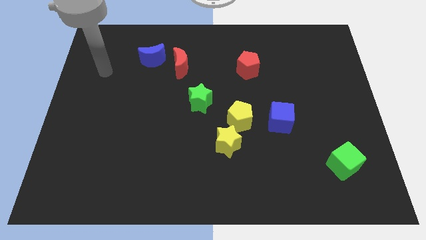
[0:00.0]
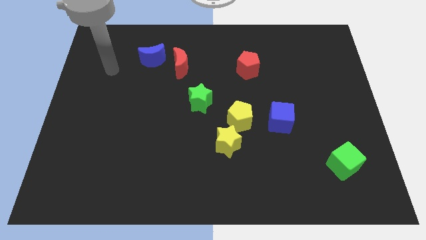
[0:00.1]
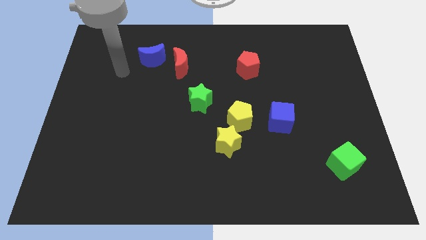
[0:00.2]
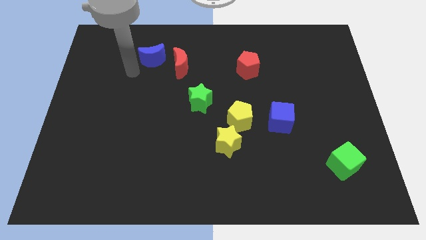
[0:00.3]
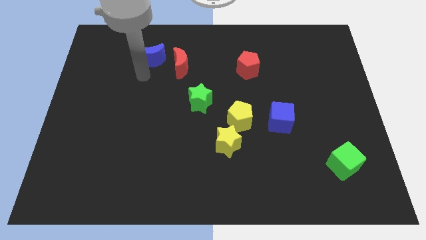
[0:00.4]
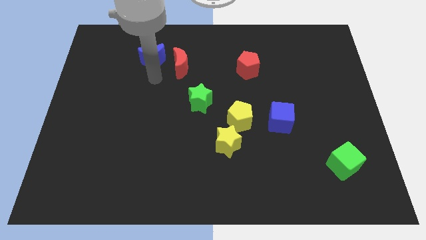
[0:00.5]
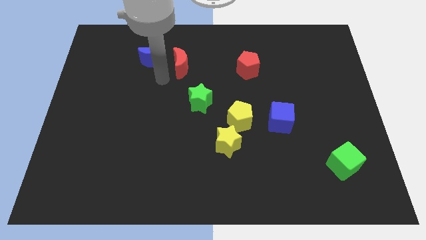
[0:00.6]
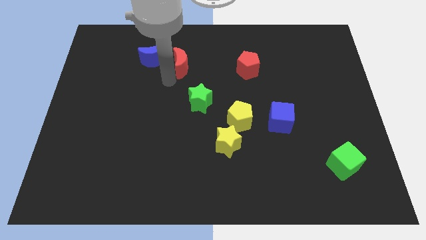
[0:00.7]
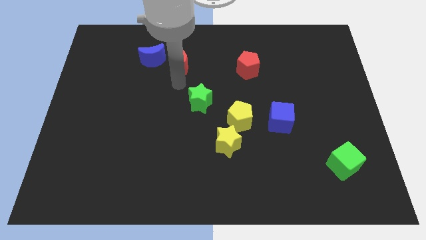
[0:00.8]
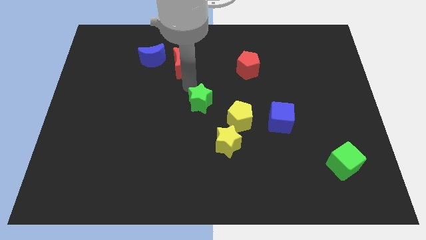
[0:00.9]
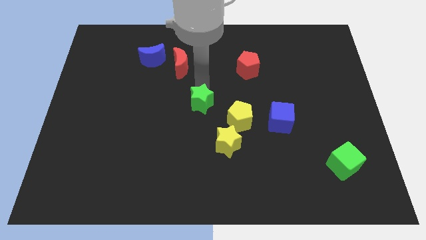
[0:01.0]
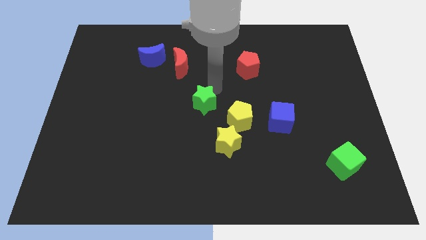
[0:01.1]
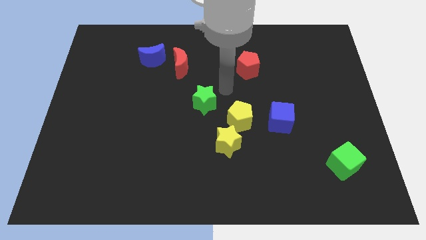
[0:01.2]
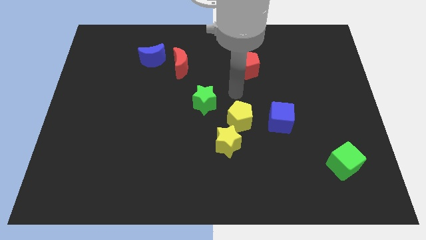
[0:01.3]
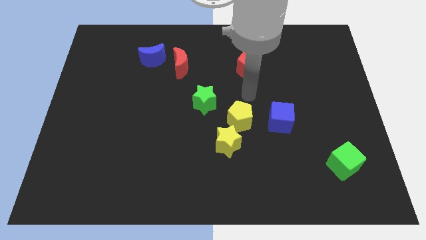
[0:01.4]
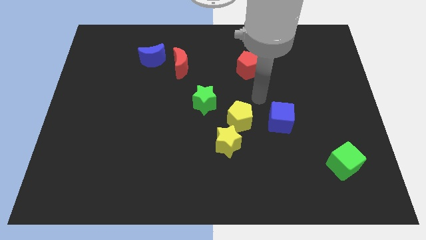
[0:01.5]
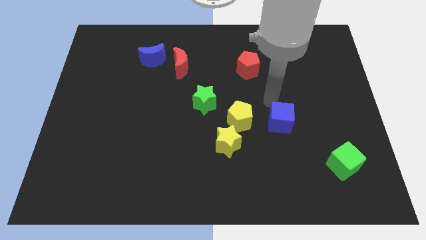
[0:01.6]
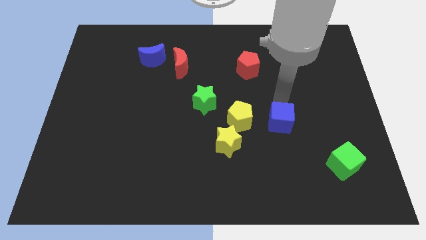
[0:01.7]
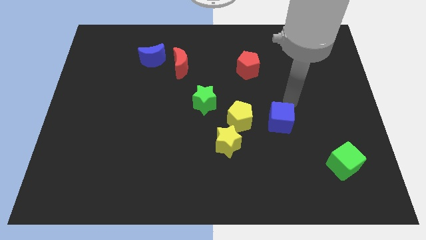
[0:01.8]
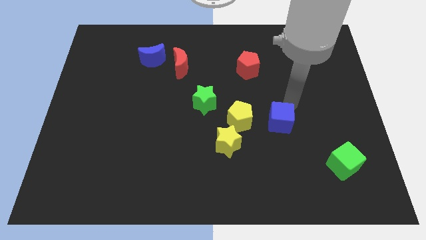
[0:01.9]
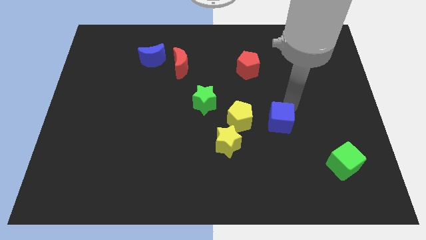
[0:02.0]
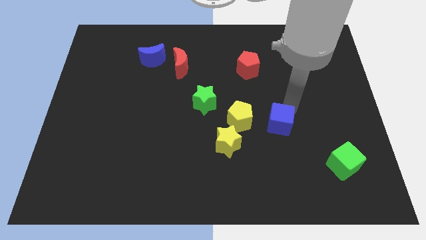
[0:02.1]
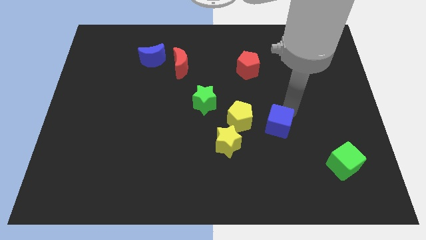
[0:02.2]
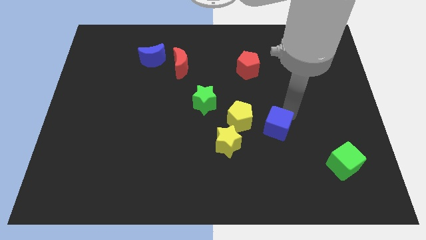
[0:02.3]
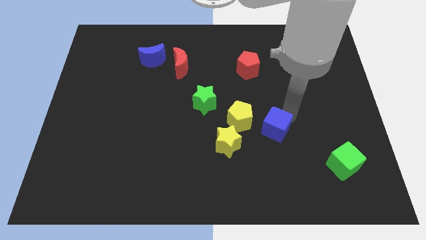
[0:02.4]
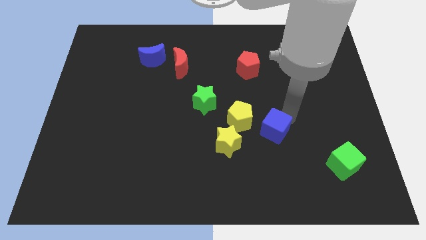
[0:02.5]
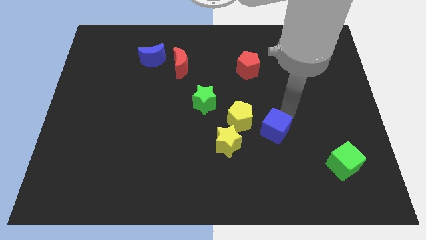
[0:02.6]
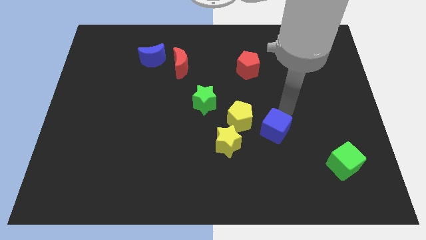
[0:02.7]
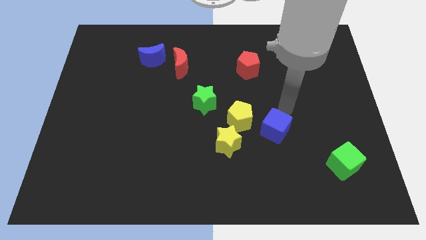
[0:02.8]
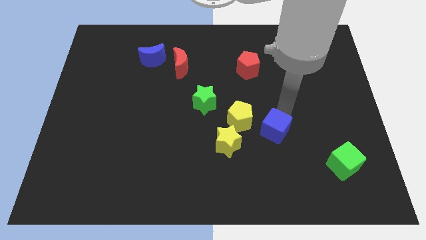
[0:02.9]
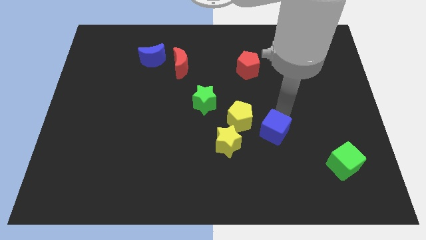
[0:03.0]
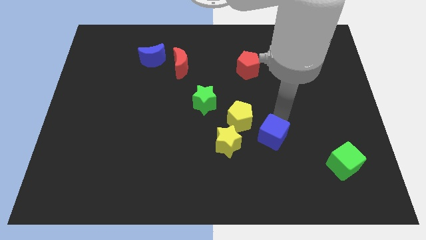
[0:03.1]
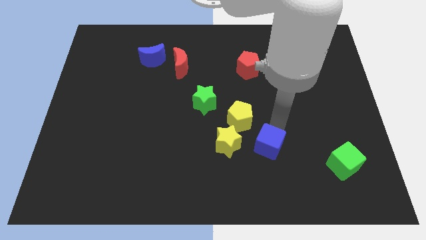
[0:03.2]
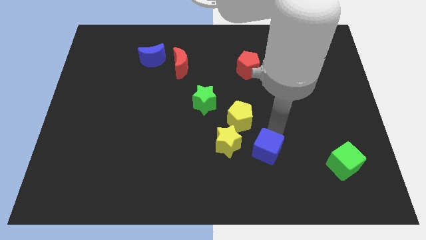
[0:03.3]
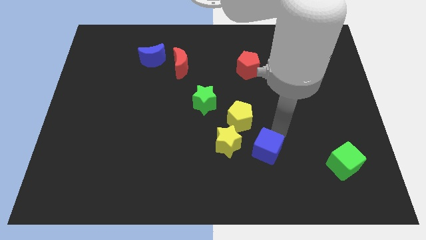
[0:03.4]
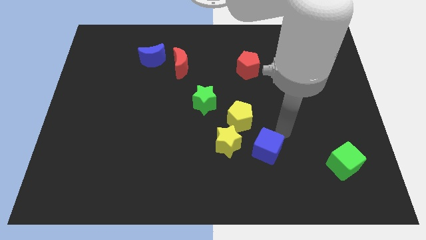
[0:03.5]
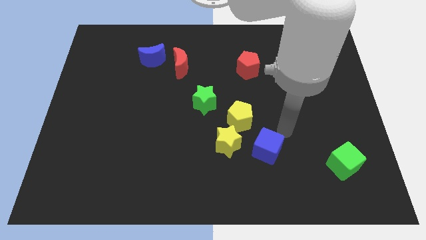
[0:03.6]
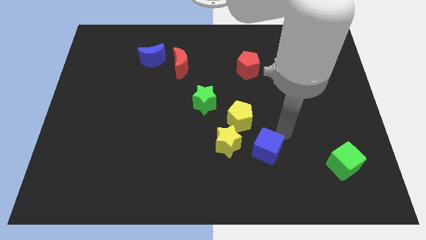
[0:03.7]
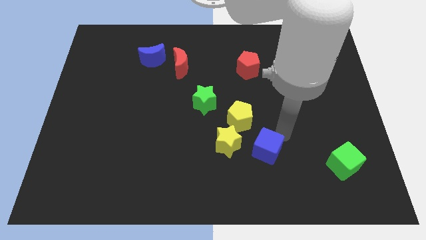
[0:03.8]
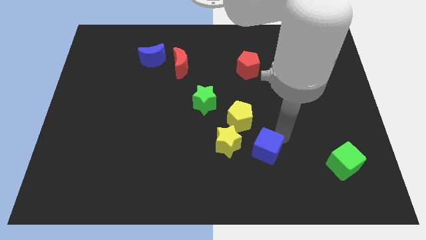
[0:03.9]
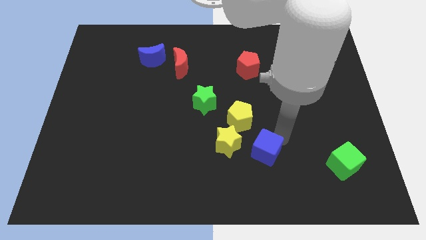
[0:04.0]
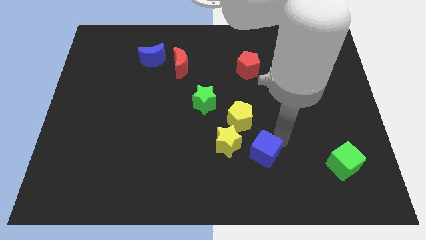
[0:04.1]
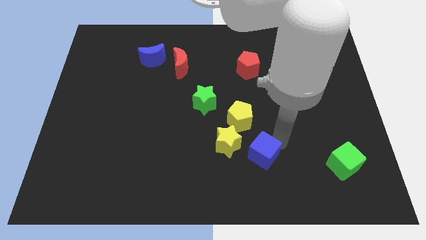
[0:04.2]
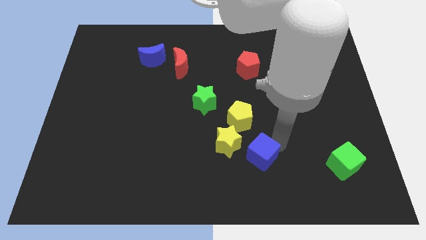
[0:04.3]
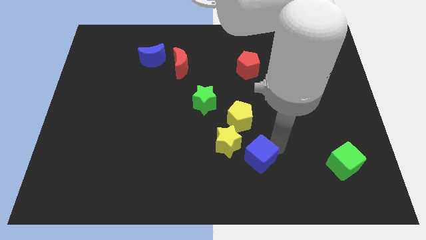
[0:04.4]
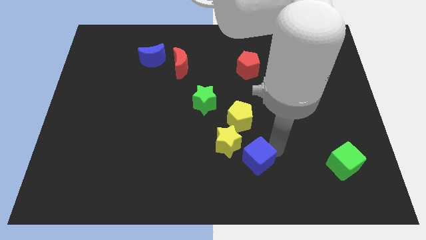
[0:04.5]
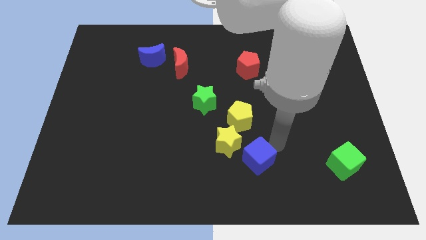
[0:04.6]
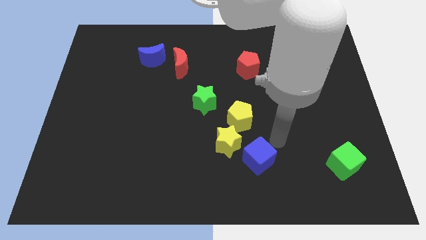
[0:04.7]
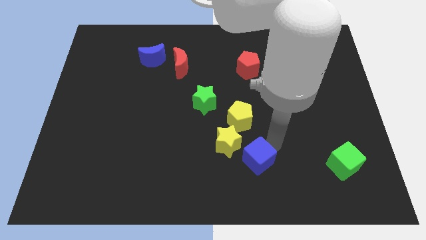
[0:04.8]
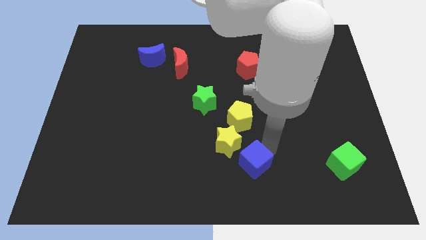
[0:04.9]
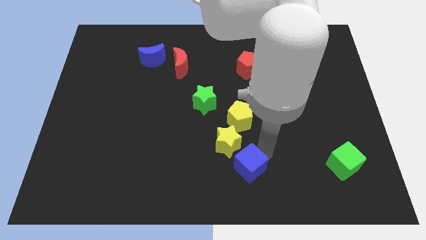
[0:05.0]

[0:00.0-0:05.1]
move the blue cube to the bottom

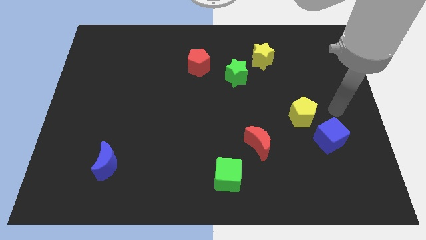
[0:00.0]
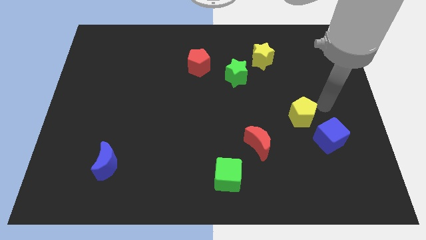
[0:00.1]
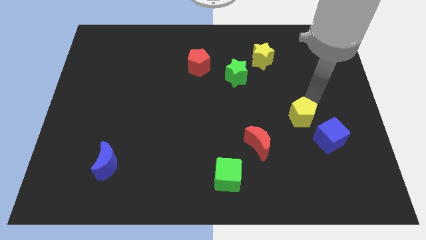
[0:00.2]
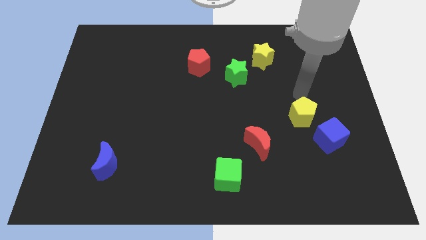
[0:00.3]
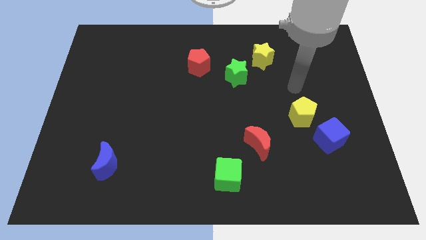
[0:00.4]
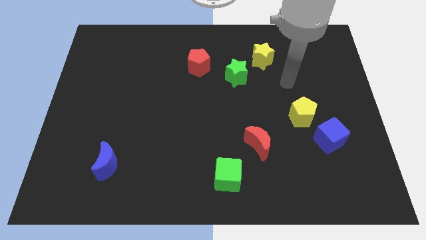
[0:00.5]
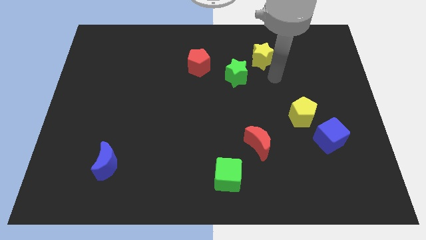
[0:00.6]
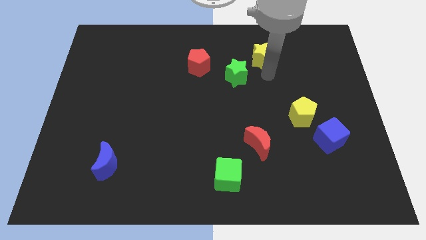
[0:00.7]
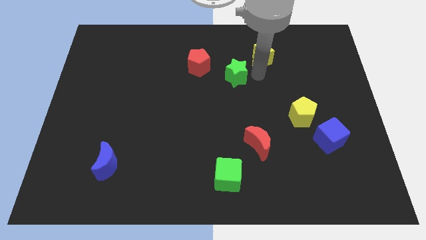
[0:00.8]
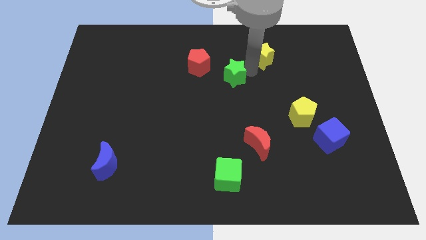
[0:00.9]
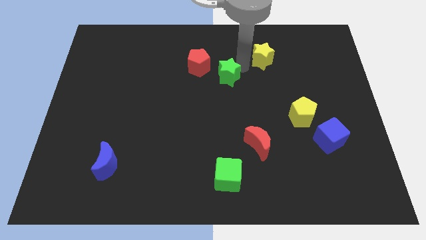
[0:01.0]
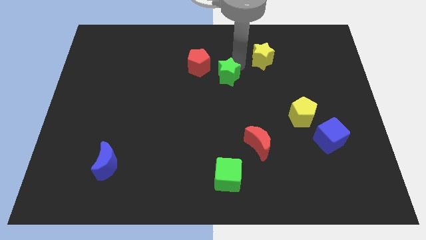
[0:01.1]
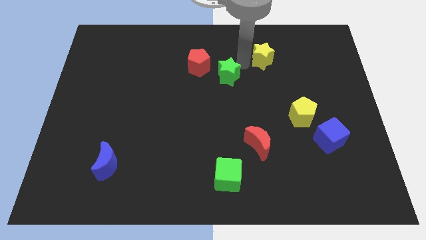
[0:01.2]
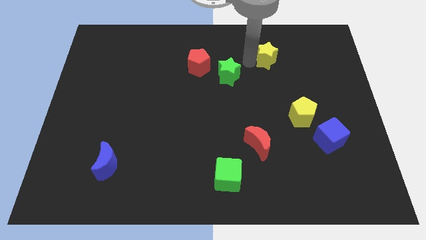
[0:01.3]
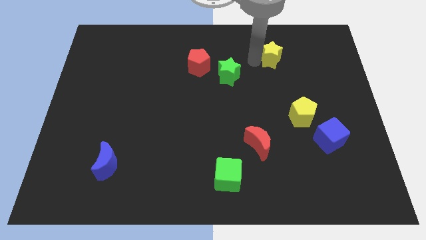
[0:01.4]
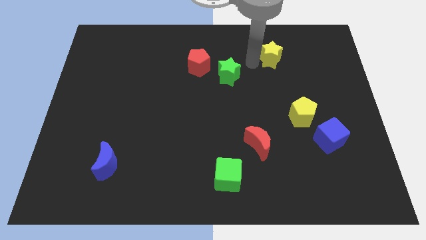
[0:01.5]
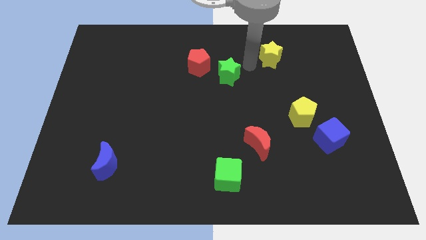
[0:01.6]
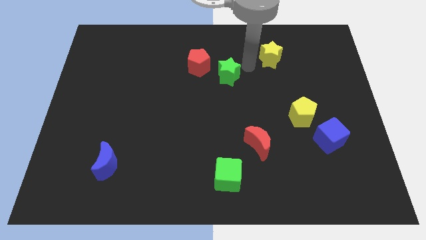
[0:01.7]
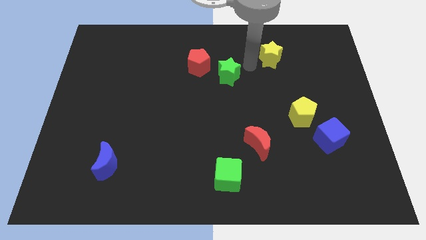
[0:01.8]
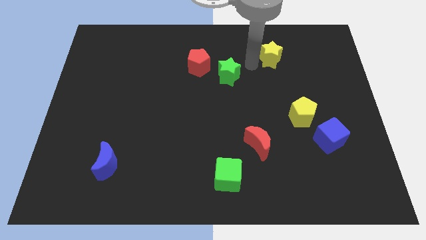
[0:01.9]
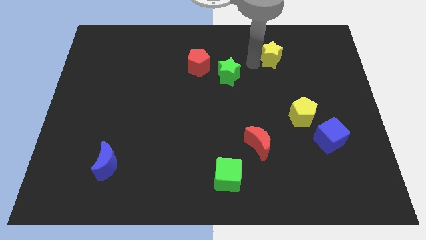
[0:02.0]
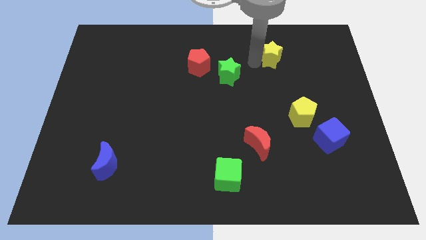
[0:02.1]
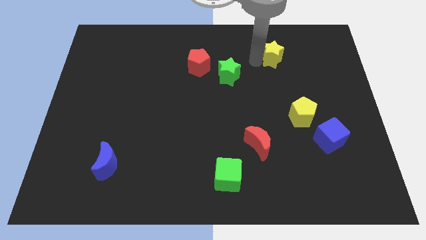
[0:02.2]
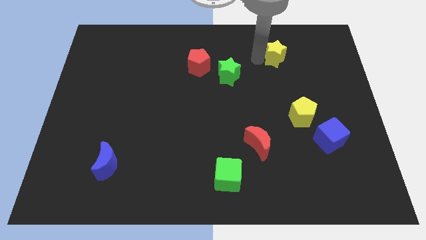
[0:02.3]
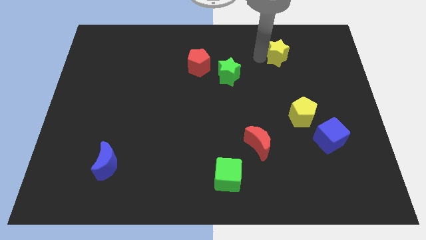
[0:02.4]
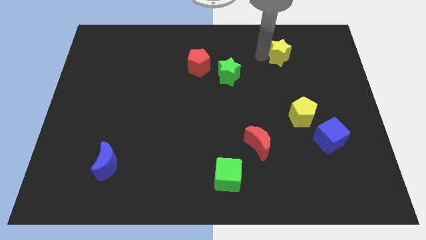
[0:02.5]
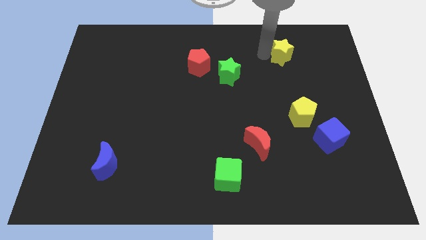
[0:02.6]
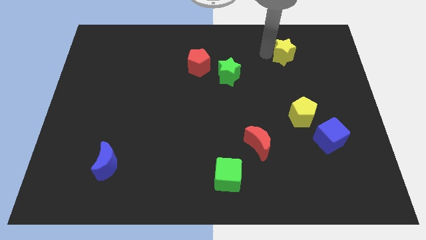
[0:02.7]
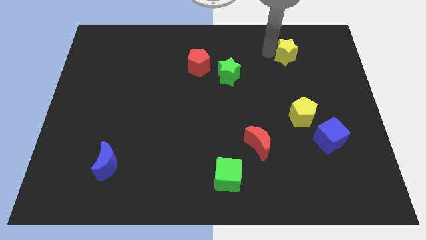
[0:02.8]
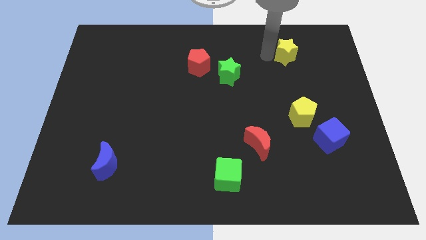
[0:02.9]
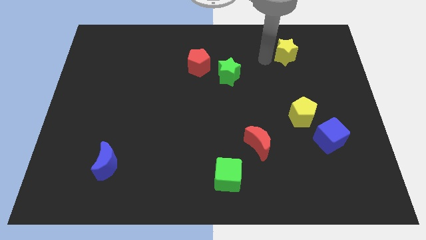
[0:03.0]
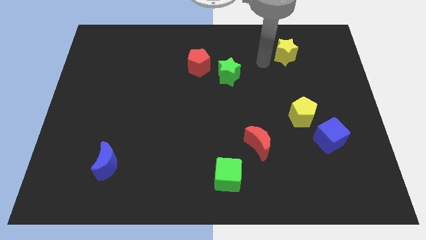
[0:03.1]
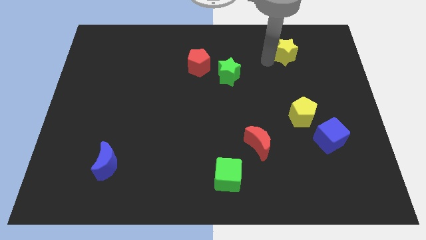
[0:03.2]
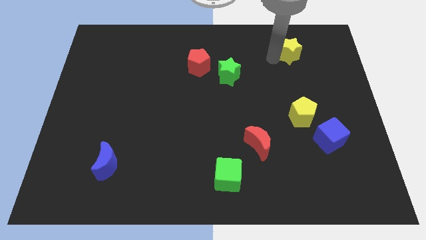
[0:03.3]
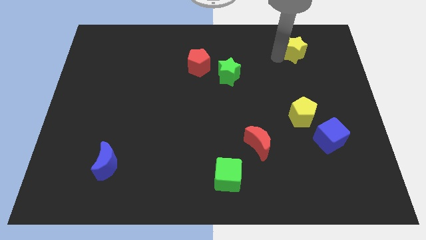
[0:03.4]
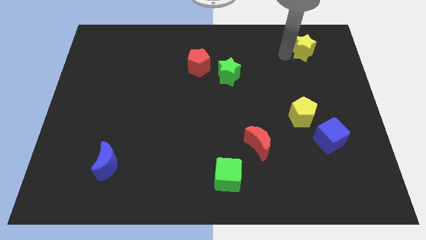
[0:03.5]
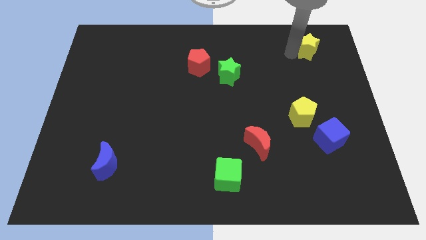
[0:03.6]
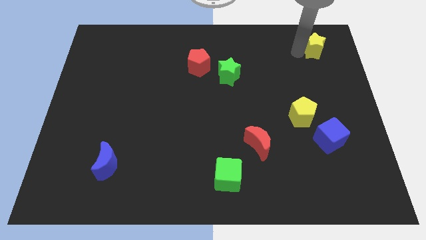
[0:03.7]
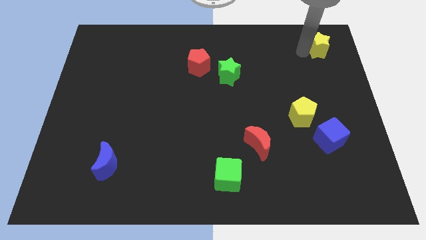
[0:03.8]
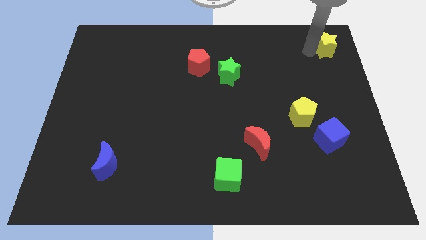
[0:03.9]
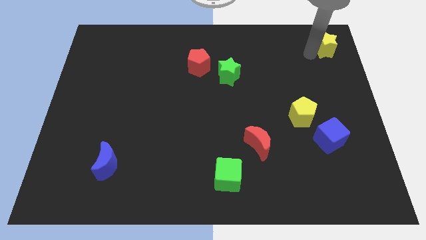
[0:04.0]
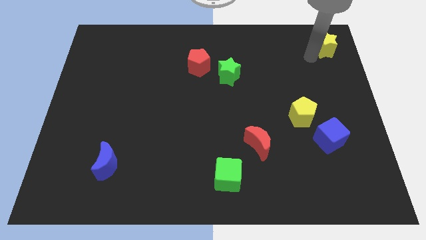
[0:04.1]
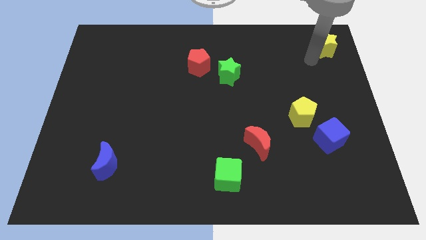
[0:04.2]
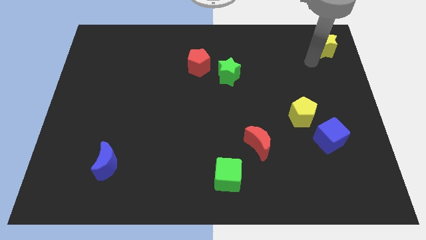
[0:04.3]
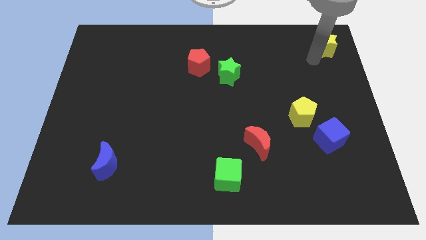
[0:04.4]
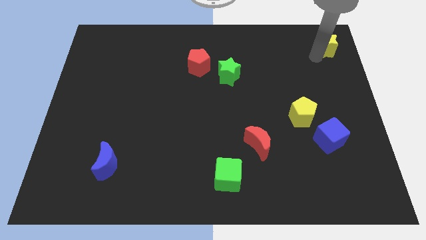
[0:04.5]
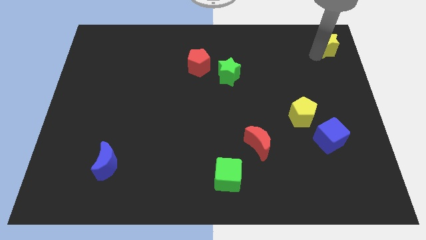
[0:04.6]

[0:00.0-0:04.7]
push the yellow star to the top right of the board
